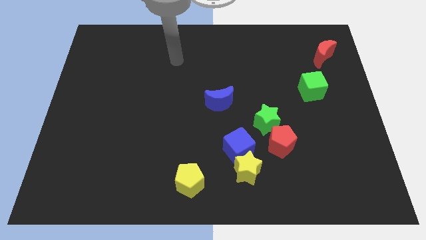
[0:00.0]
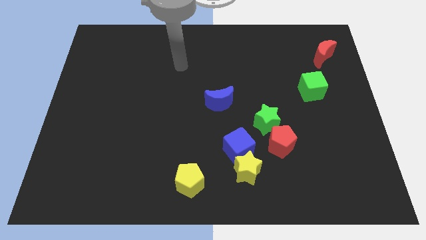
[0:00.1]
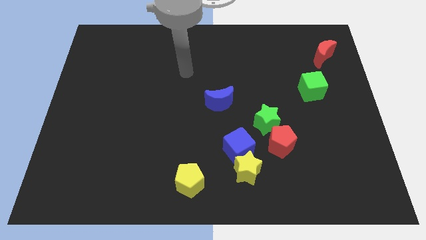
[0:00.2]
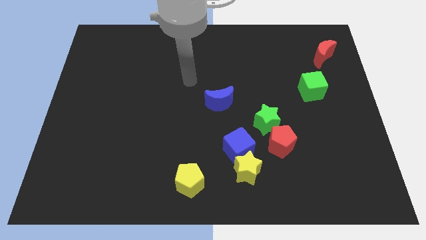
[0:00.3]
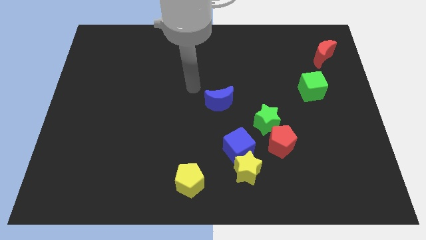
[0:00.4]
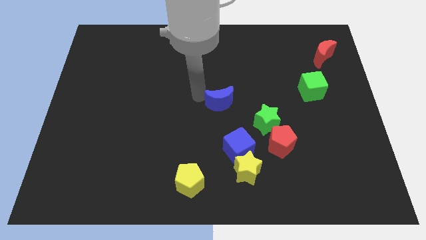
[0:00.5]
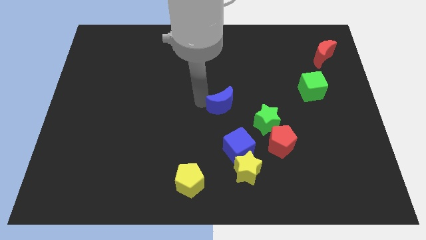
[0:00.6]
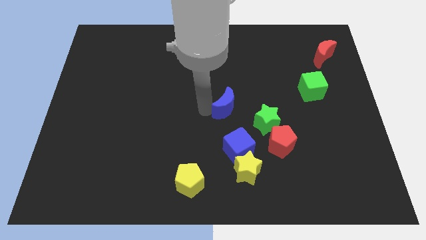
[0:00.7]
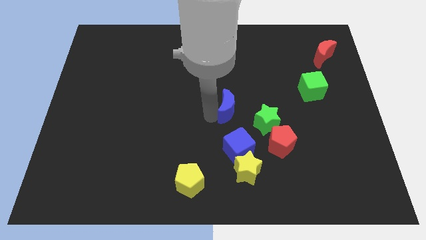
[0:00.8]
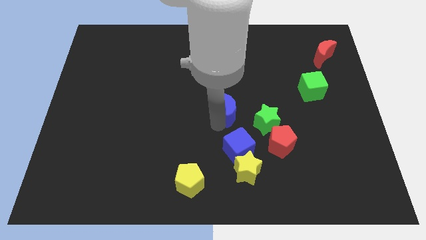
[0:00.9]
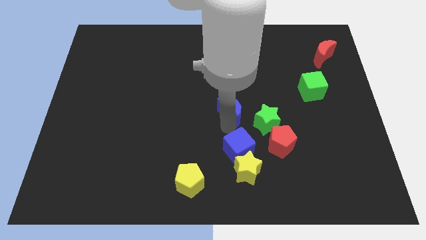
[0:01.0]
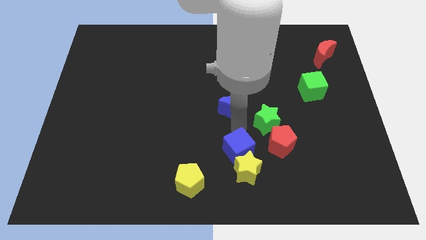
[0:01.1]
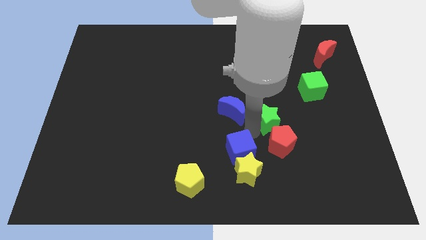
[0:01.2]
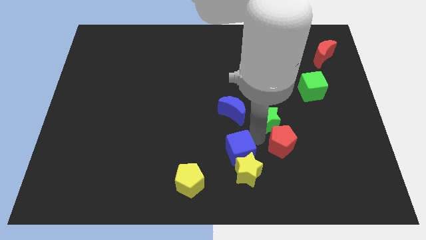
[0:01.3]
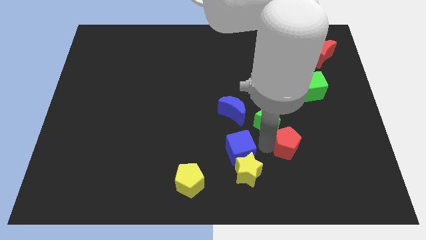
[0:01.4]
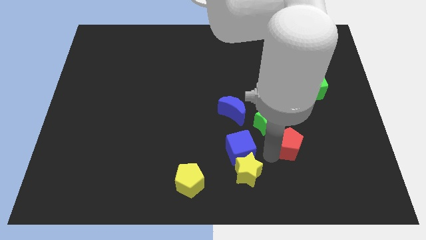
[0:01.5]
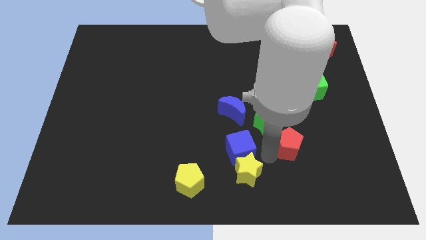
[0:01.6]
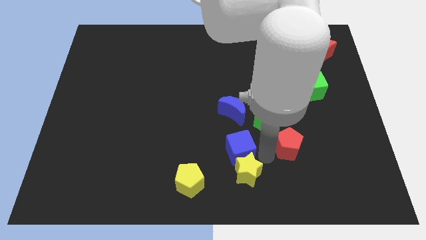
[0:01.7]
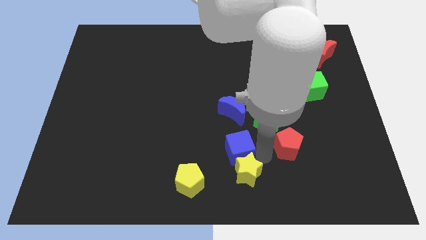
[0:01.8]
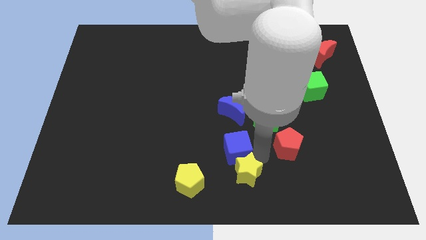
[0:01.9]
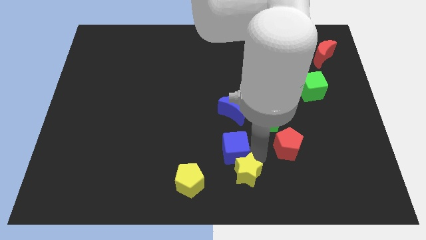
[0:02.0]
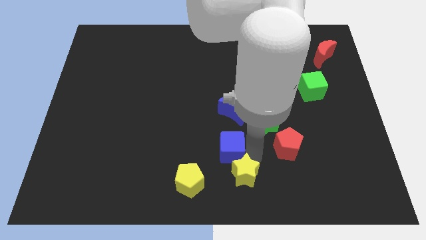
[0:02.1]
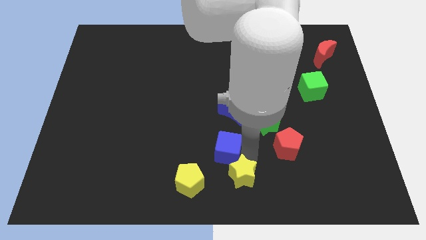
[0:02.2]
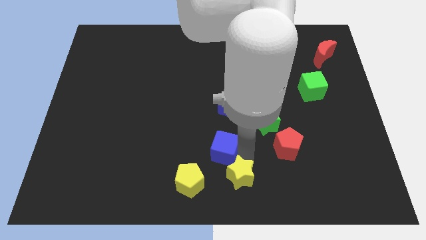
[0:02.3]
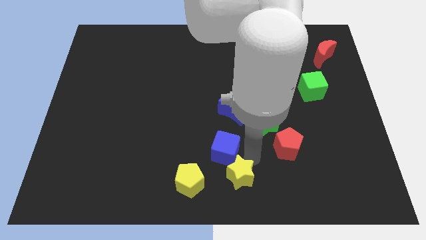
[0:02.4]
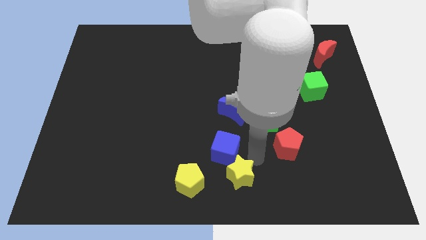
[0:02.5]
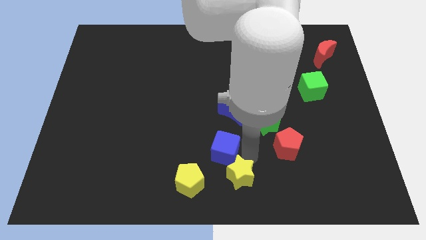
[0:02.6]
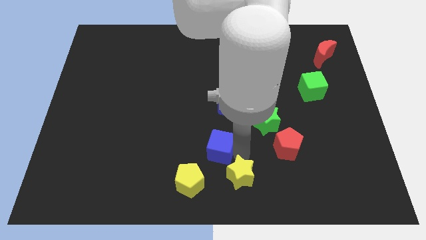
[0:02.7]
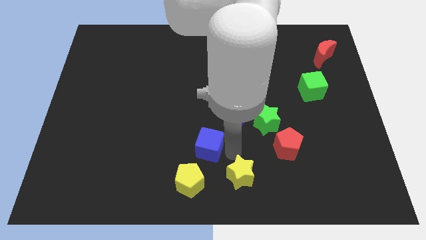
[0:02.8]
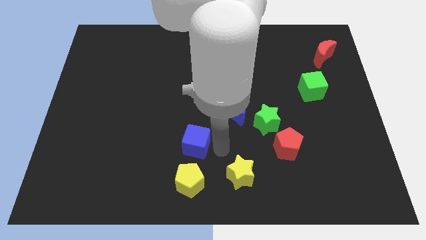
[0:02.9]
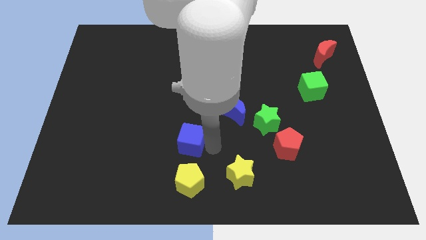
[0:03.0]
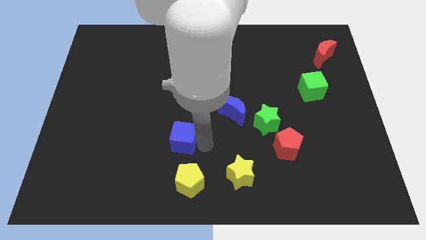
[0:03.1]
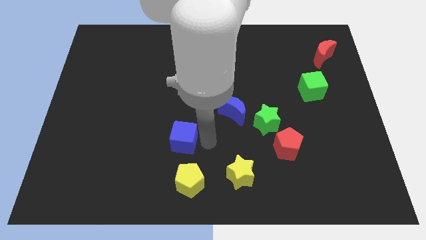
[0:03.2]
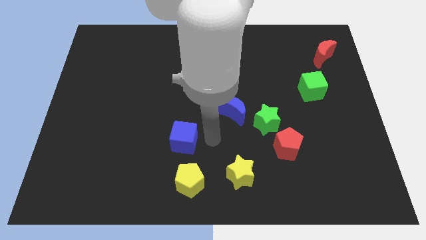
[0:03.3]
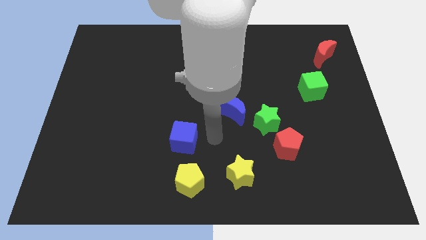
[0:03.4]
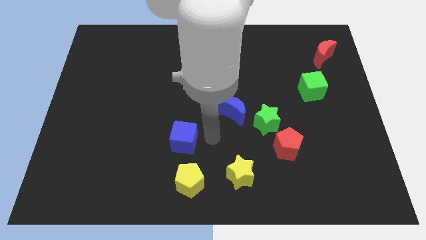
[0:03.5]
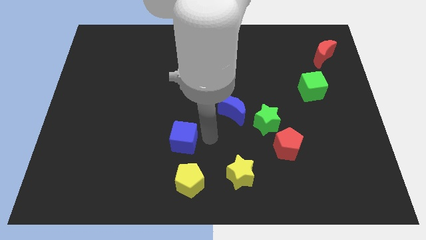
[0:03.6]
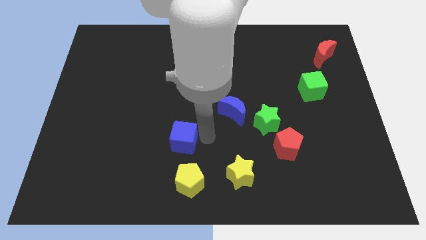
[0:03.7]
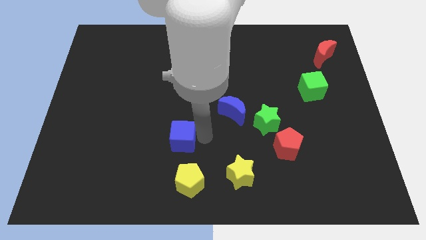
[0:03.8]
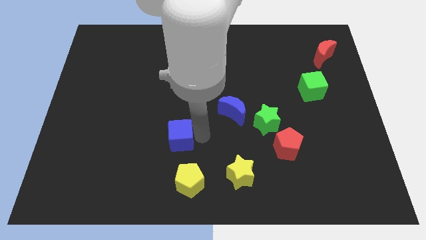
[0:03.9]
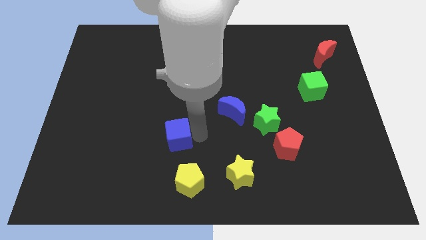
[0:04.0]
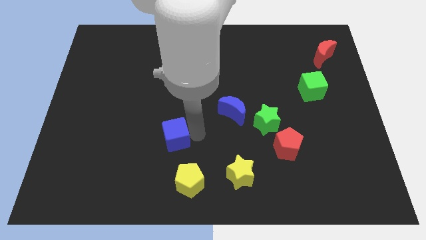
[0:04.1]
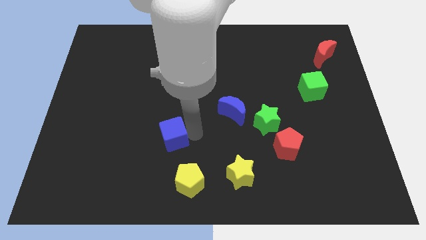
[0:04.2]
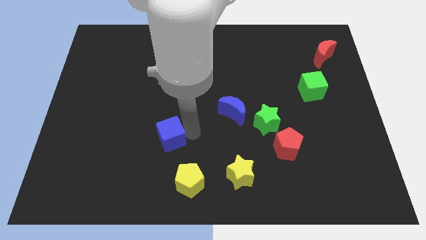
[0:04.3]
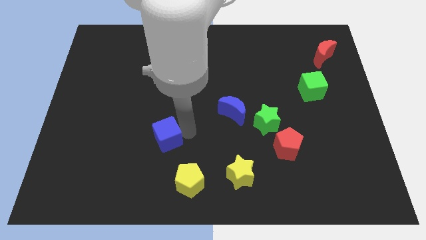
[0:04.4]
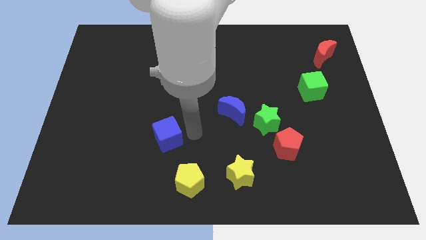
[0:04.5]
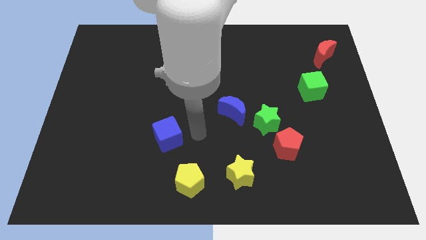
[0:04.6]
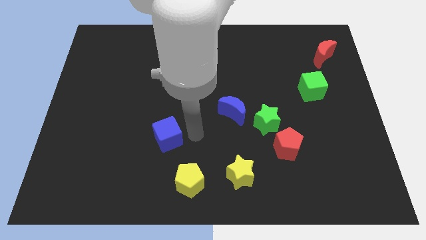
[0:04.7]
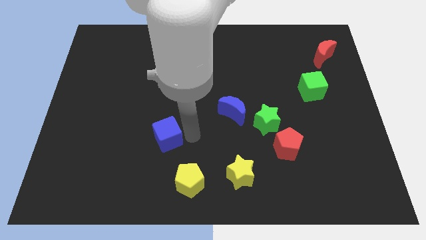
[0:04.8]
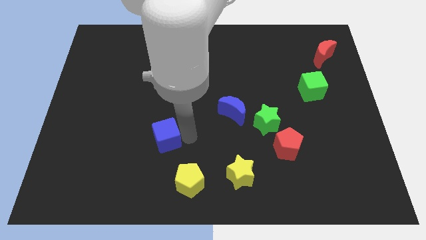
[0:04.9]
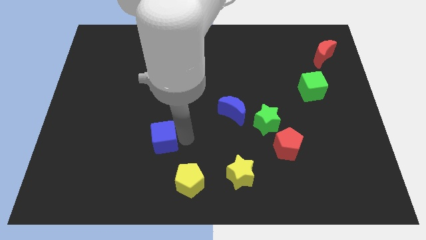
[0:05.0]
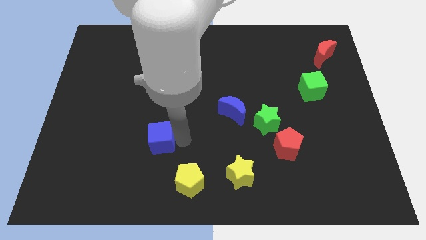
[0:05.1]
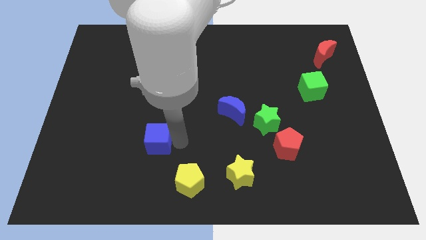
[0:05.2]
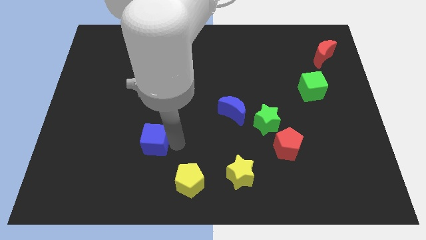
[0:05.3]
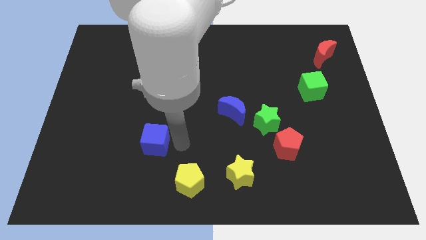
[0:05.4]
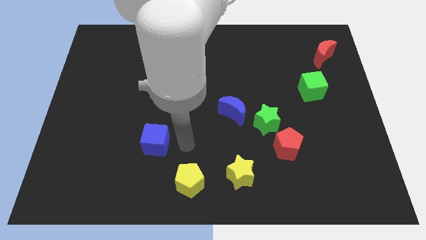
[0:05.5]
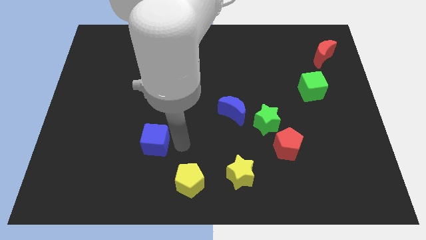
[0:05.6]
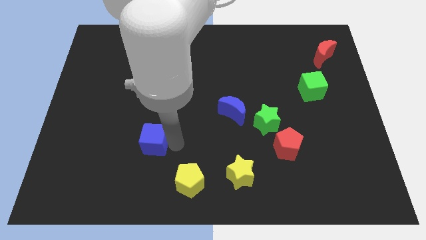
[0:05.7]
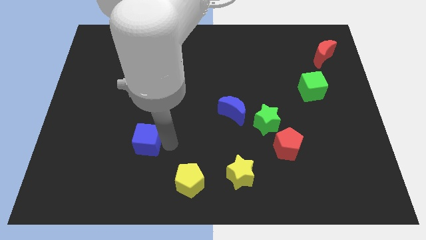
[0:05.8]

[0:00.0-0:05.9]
slide the blue cube to the left

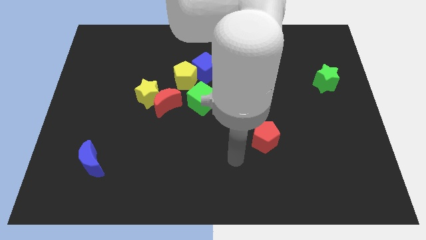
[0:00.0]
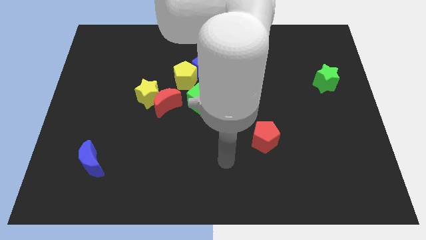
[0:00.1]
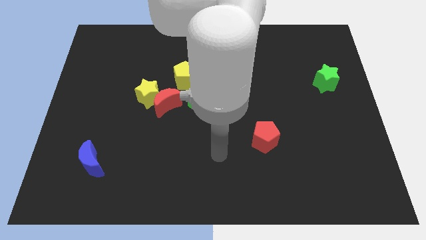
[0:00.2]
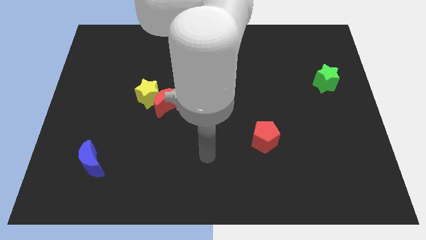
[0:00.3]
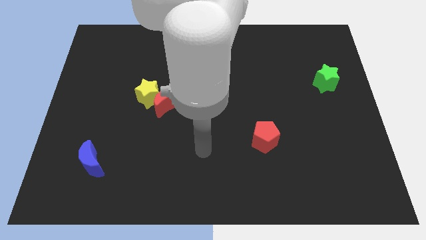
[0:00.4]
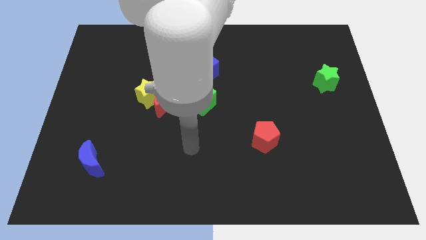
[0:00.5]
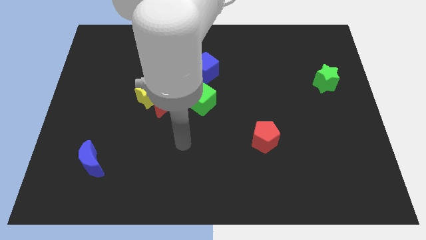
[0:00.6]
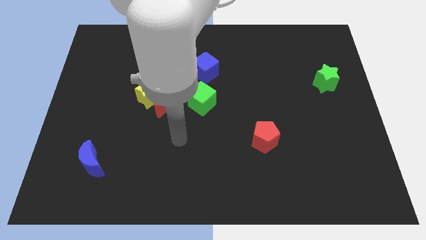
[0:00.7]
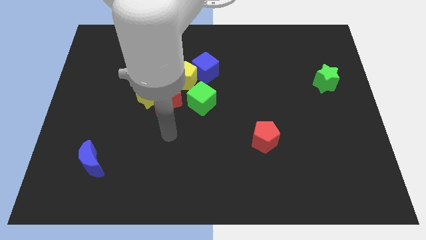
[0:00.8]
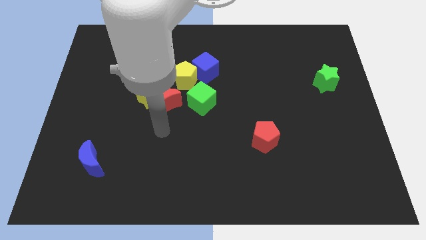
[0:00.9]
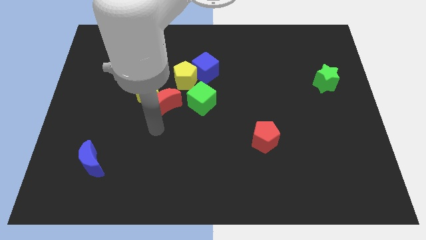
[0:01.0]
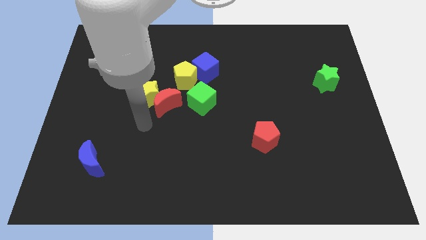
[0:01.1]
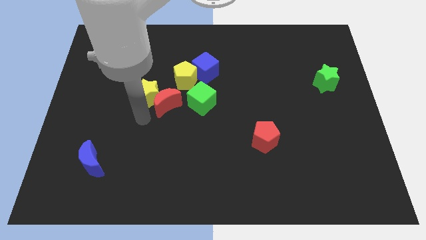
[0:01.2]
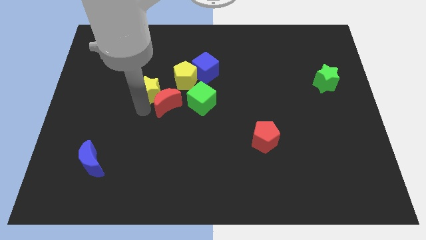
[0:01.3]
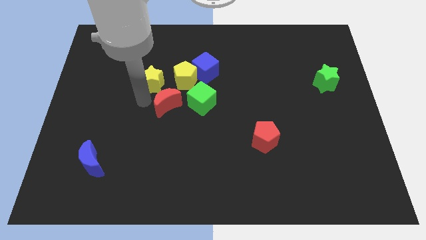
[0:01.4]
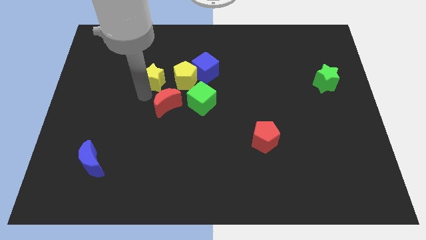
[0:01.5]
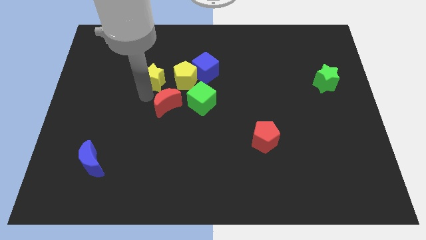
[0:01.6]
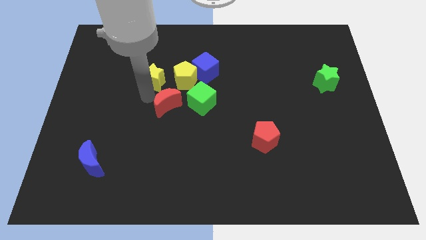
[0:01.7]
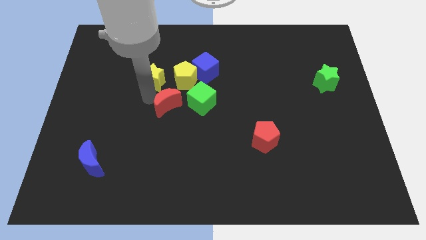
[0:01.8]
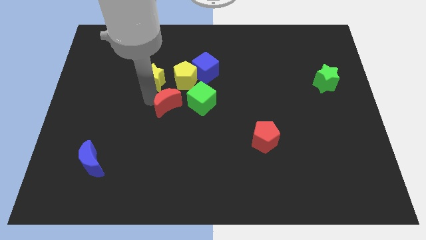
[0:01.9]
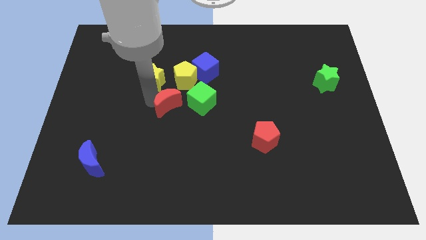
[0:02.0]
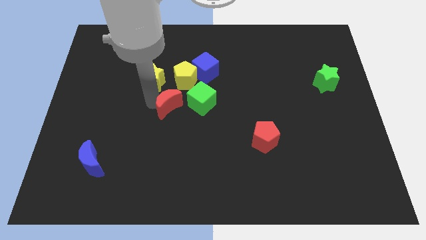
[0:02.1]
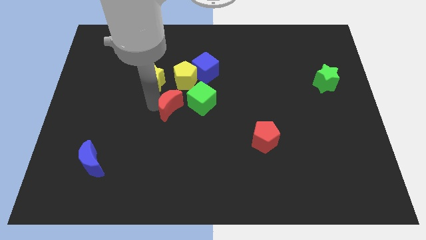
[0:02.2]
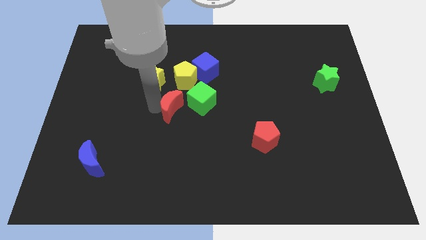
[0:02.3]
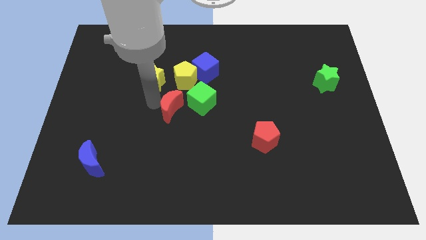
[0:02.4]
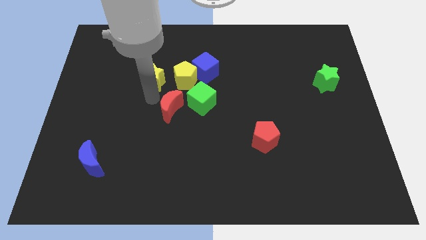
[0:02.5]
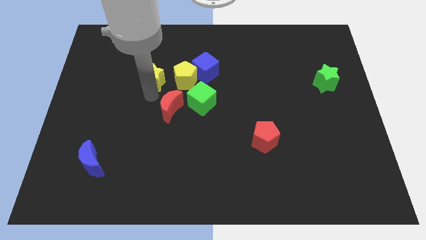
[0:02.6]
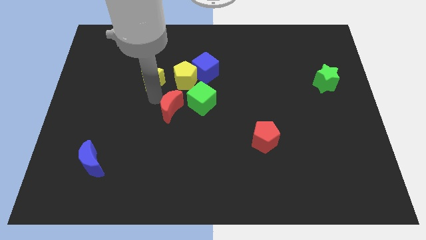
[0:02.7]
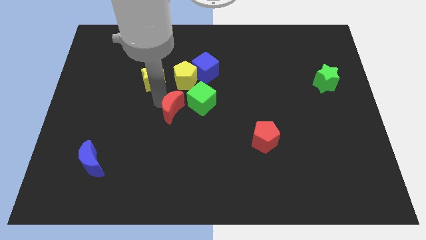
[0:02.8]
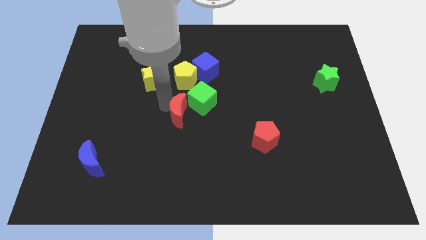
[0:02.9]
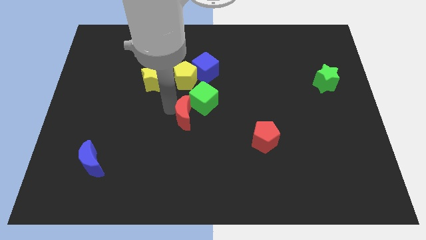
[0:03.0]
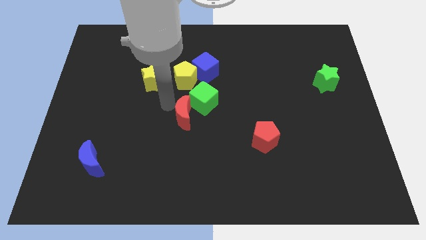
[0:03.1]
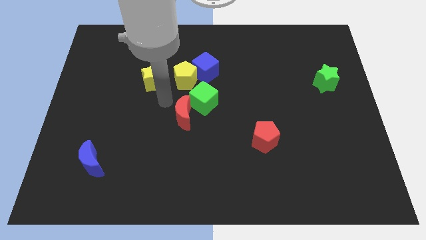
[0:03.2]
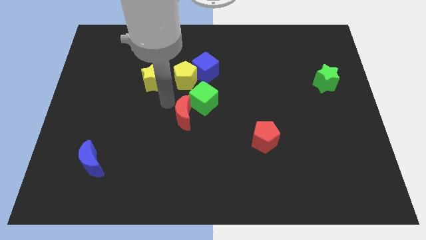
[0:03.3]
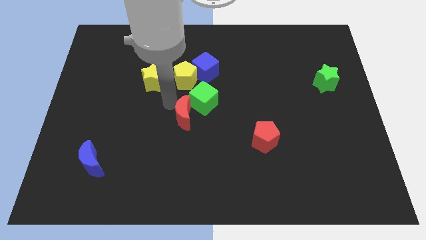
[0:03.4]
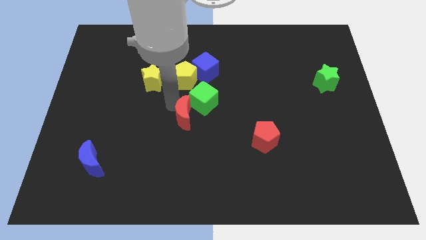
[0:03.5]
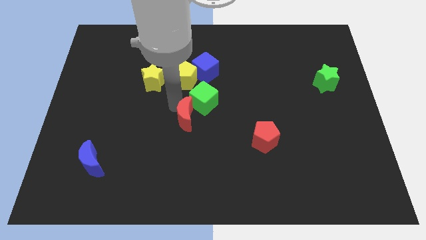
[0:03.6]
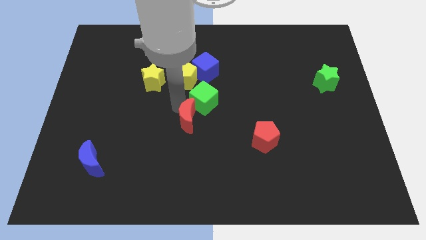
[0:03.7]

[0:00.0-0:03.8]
move the red moon a little downwards and to the right
